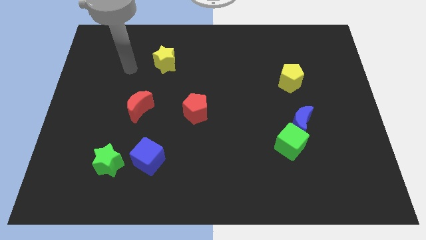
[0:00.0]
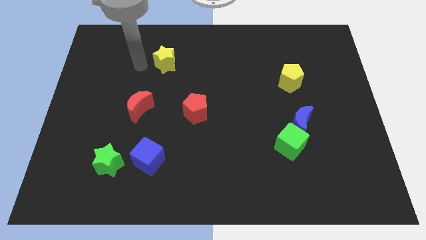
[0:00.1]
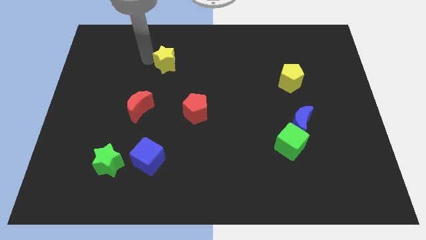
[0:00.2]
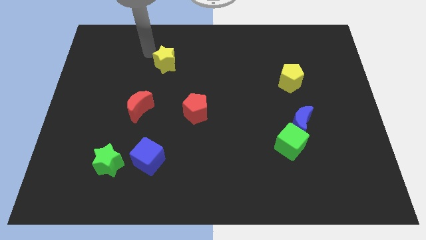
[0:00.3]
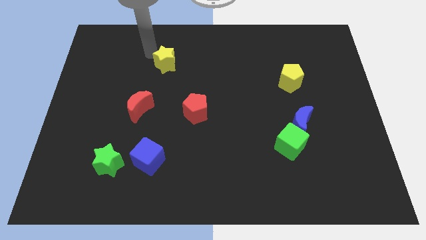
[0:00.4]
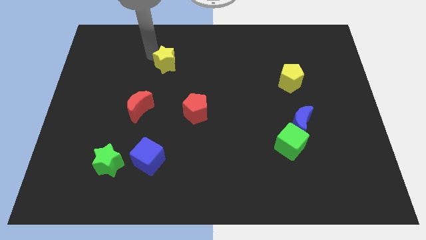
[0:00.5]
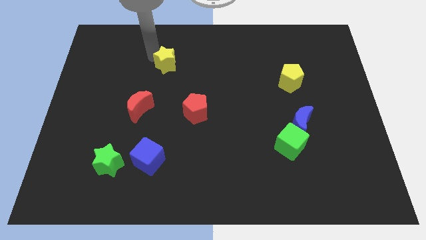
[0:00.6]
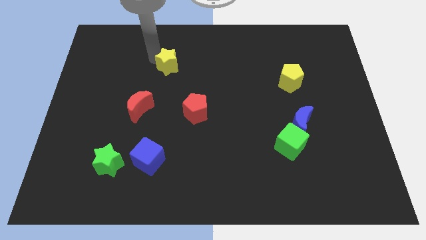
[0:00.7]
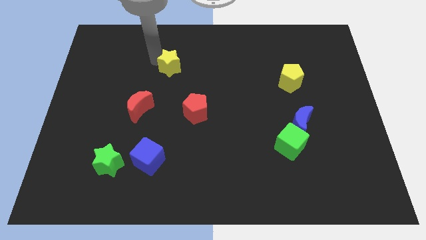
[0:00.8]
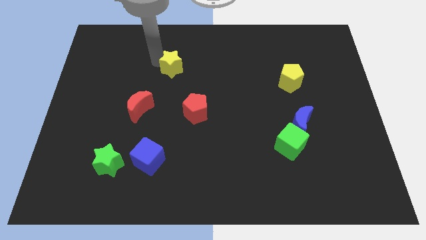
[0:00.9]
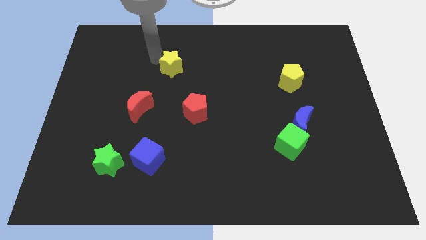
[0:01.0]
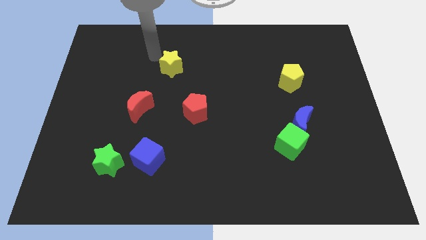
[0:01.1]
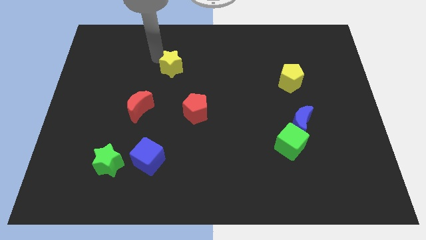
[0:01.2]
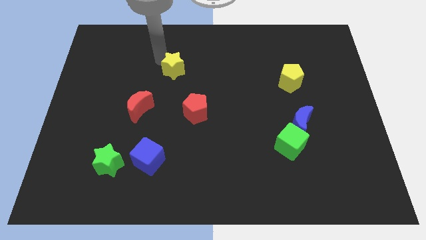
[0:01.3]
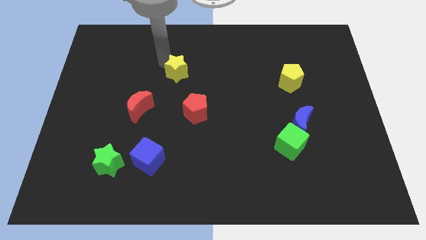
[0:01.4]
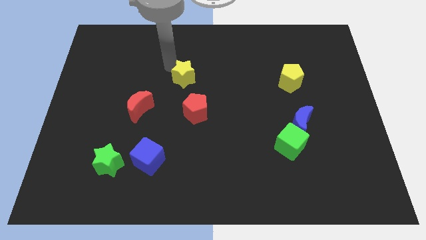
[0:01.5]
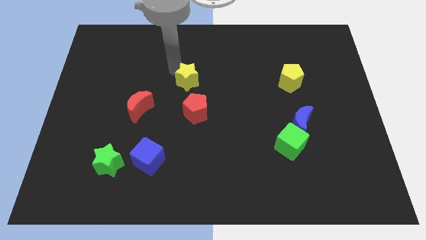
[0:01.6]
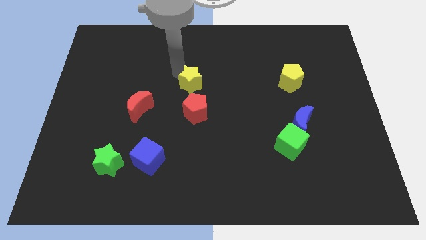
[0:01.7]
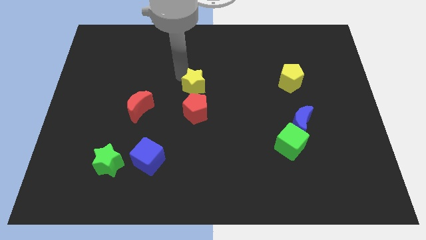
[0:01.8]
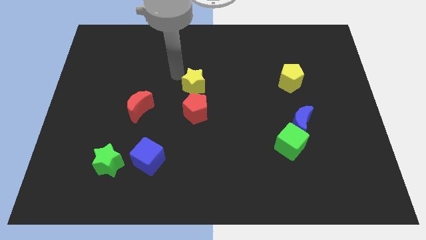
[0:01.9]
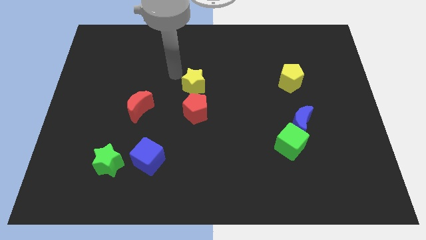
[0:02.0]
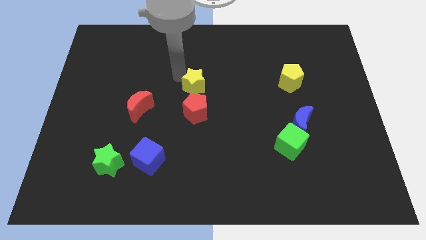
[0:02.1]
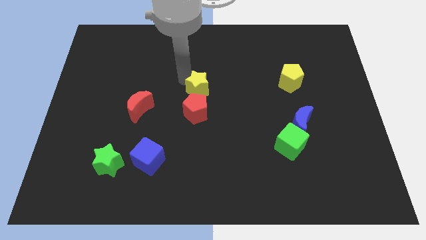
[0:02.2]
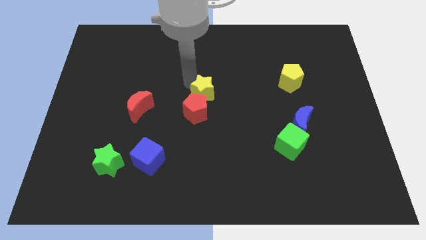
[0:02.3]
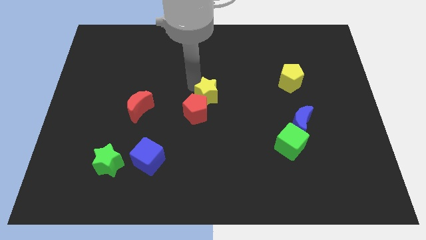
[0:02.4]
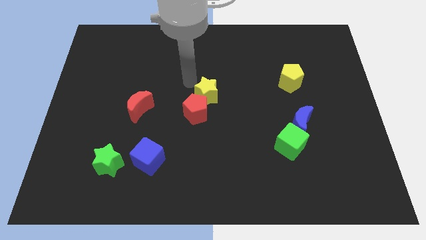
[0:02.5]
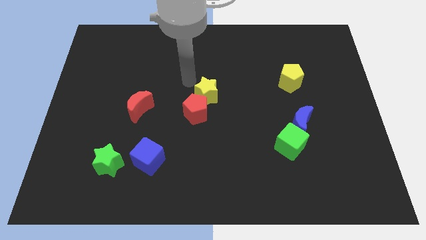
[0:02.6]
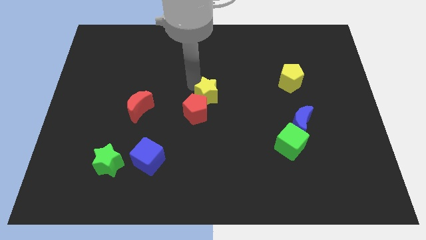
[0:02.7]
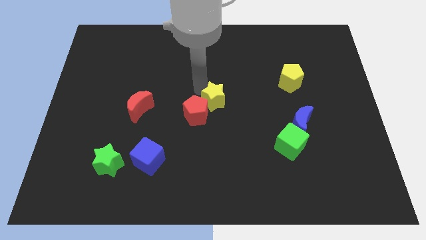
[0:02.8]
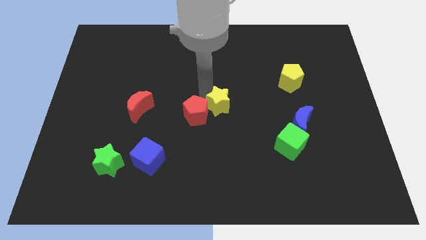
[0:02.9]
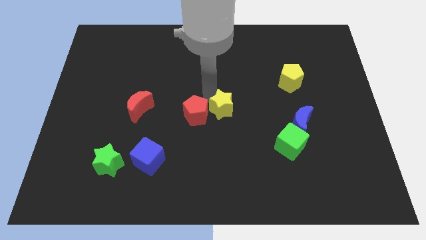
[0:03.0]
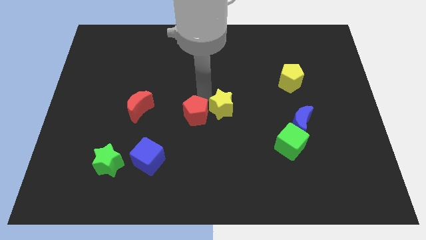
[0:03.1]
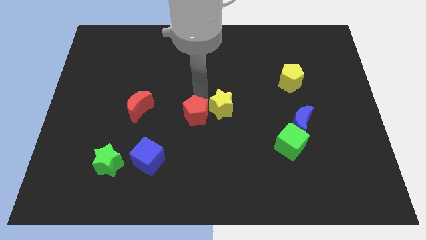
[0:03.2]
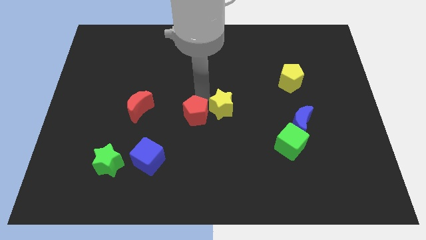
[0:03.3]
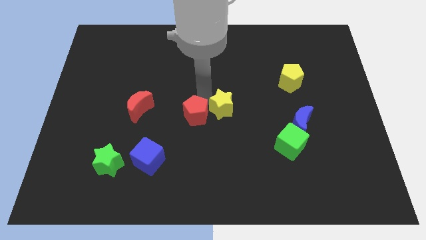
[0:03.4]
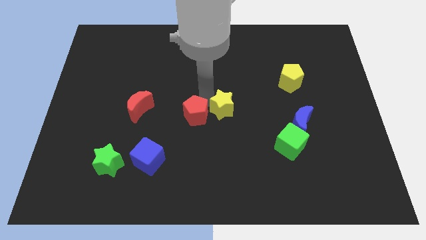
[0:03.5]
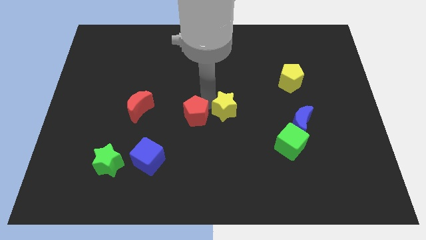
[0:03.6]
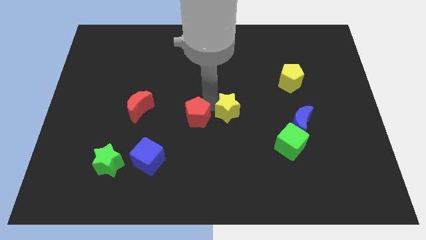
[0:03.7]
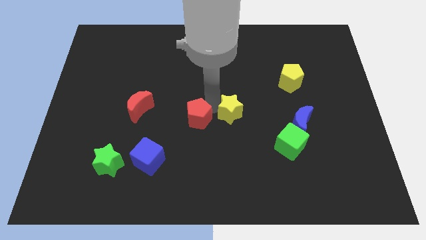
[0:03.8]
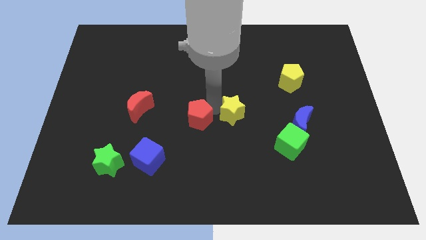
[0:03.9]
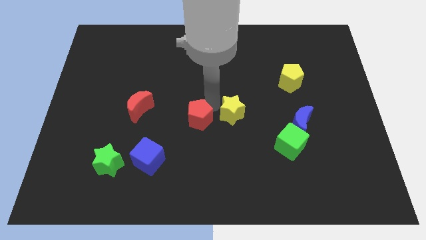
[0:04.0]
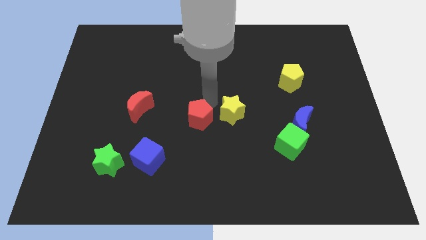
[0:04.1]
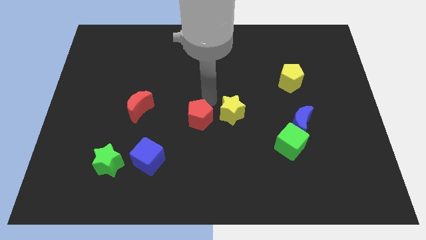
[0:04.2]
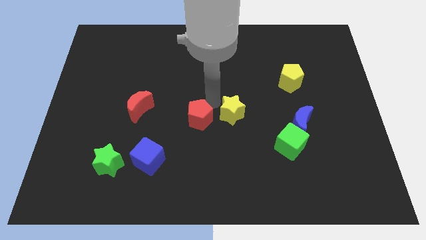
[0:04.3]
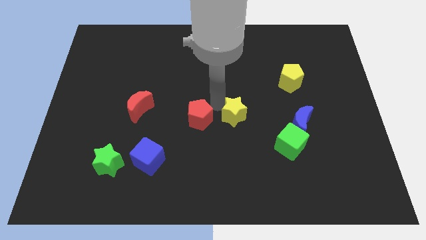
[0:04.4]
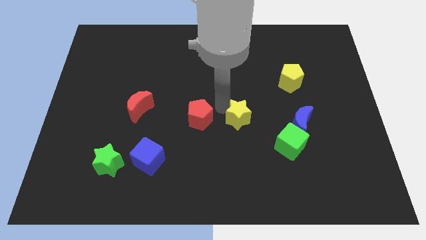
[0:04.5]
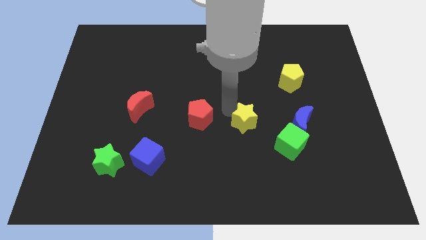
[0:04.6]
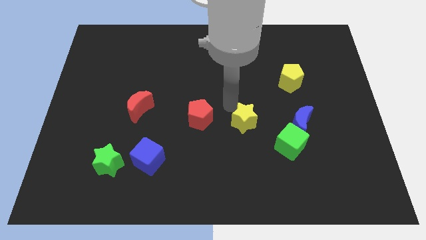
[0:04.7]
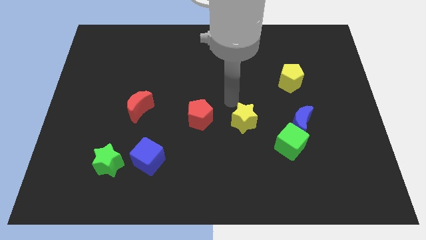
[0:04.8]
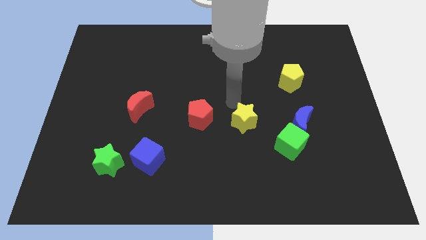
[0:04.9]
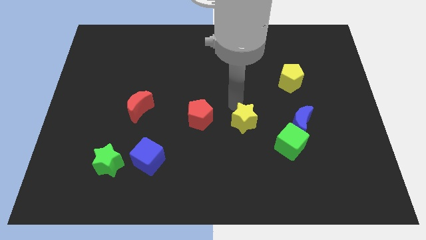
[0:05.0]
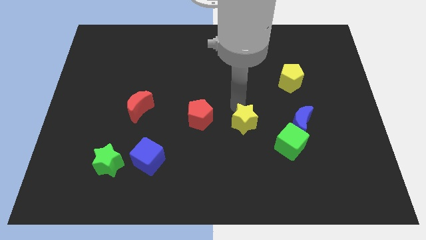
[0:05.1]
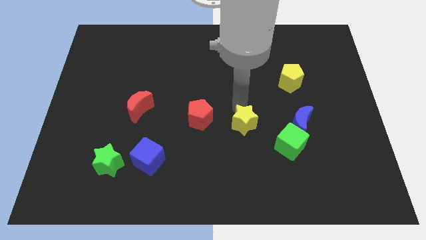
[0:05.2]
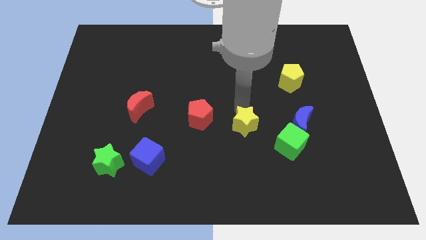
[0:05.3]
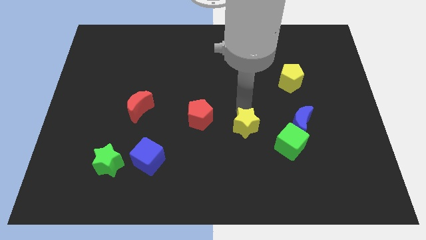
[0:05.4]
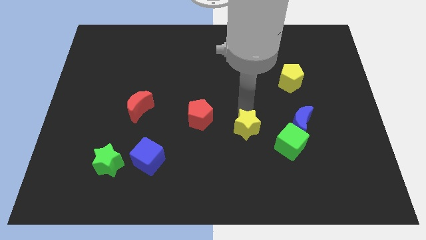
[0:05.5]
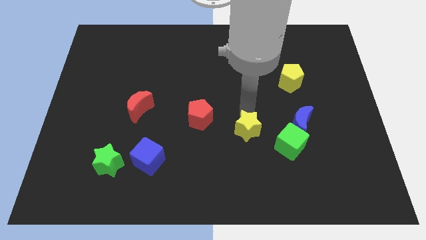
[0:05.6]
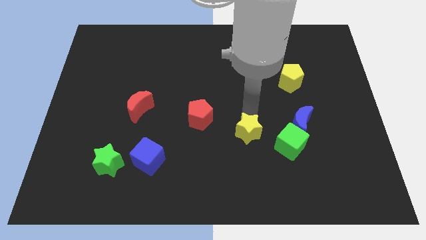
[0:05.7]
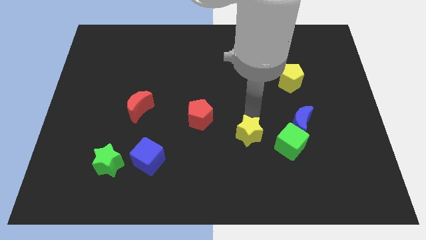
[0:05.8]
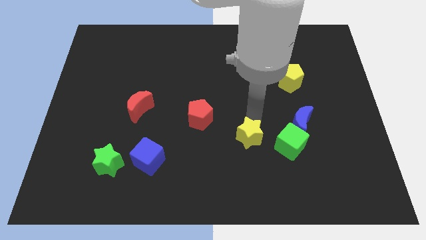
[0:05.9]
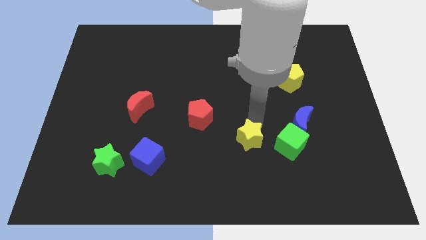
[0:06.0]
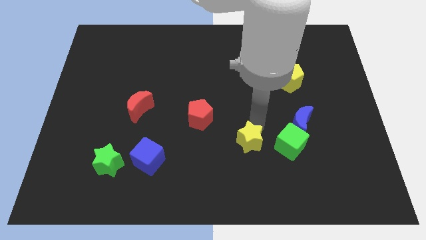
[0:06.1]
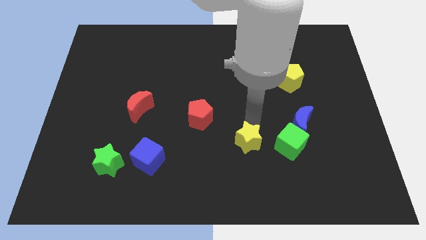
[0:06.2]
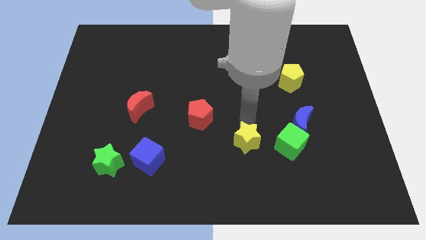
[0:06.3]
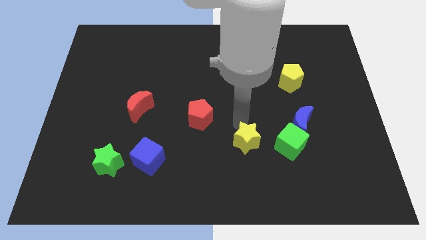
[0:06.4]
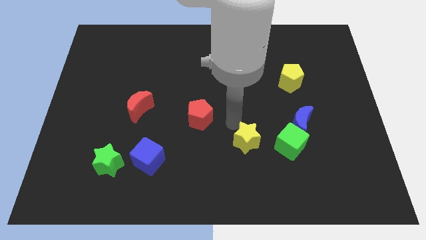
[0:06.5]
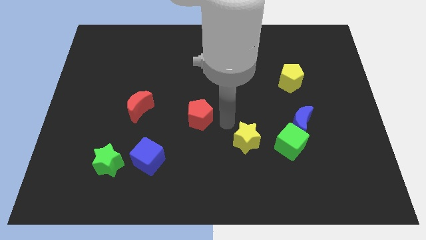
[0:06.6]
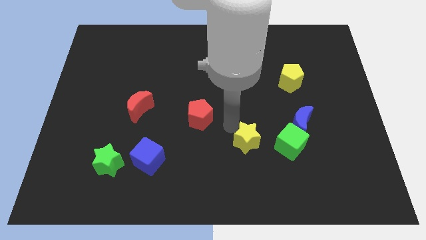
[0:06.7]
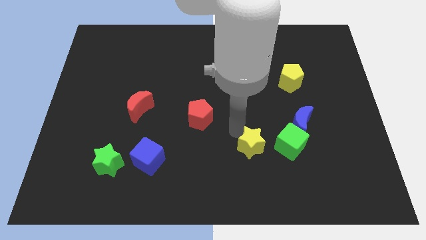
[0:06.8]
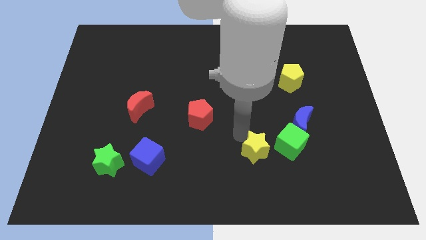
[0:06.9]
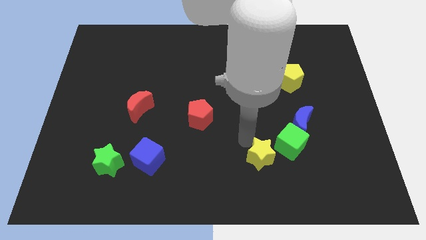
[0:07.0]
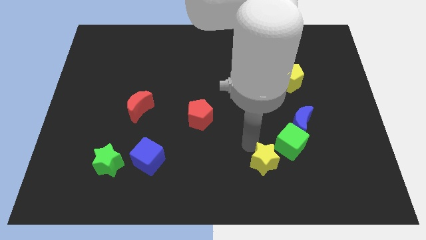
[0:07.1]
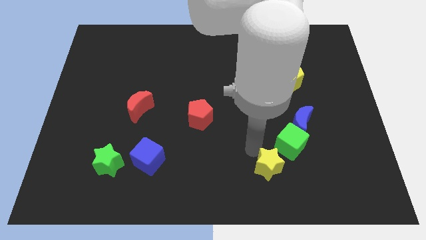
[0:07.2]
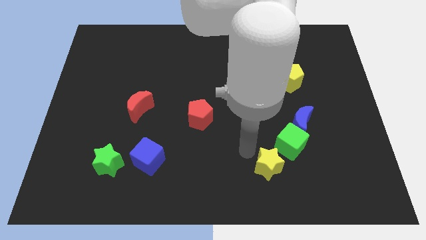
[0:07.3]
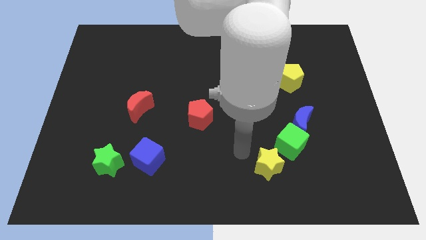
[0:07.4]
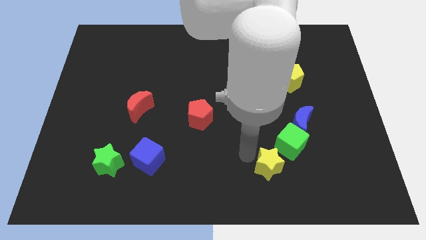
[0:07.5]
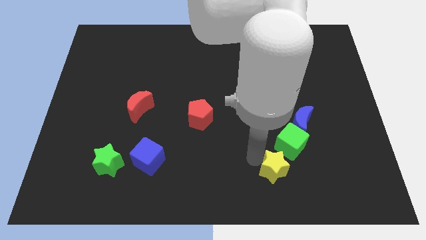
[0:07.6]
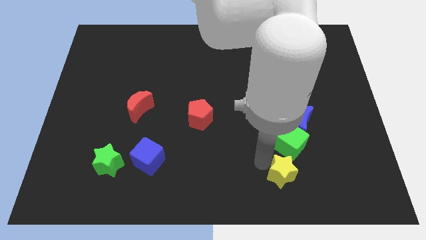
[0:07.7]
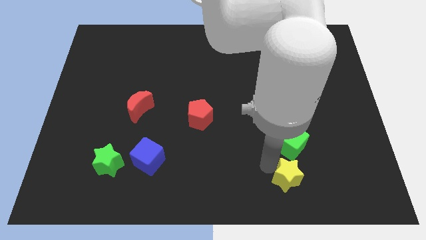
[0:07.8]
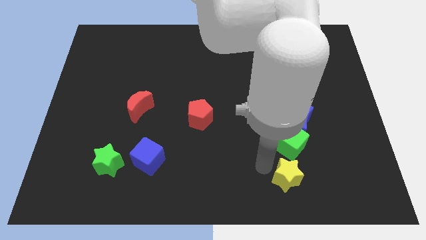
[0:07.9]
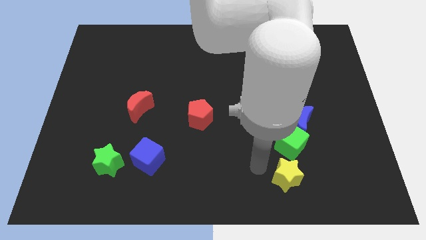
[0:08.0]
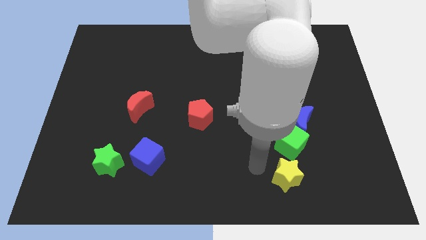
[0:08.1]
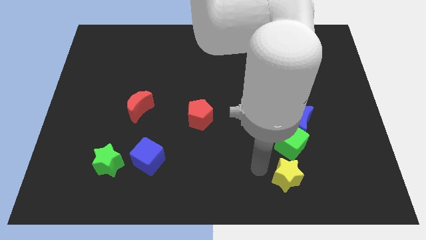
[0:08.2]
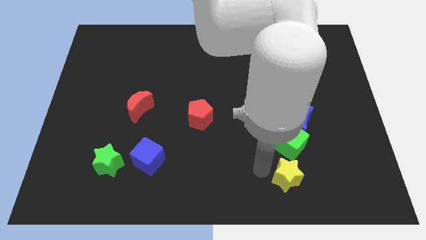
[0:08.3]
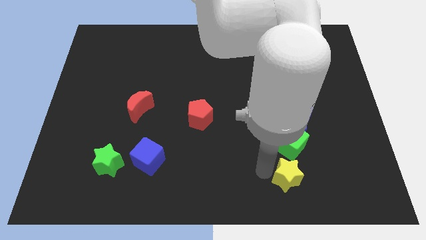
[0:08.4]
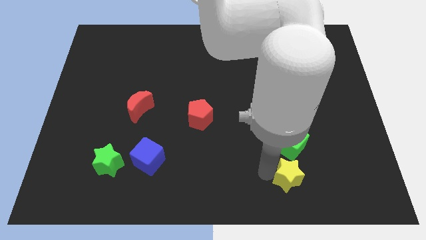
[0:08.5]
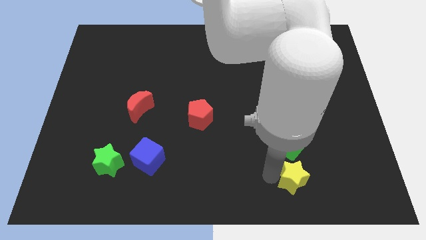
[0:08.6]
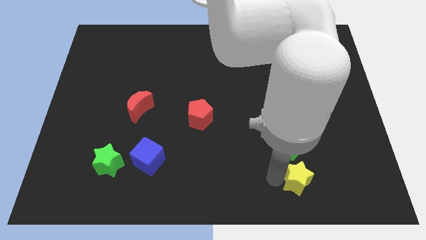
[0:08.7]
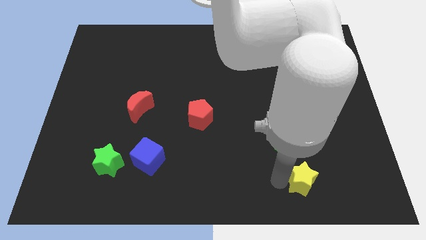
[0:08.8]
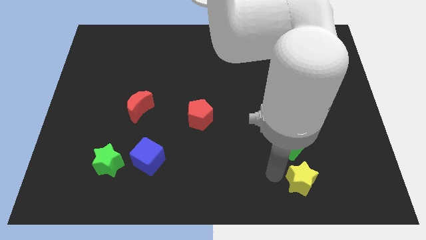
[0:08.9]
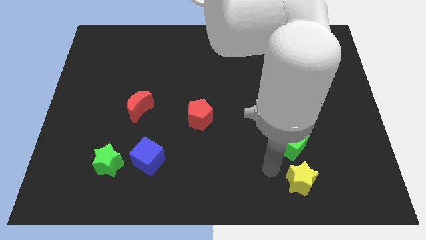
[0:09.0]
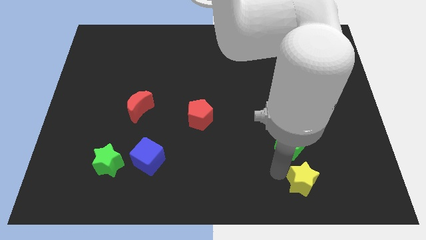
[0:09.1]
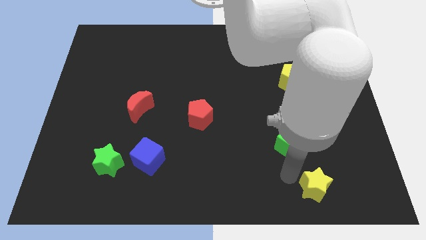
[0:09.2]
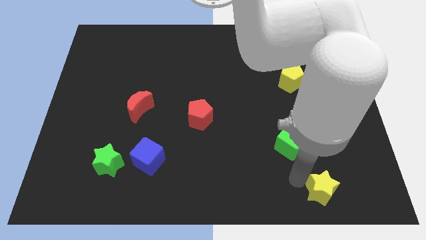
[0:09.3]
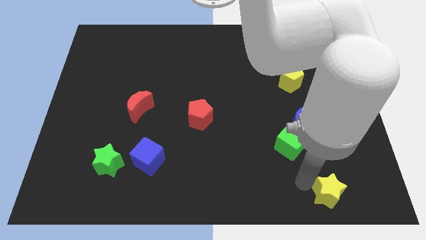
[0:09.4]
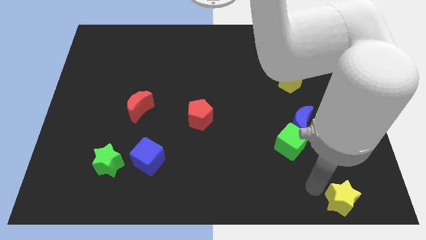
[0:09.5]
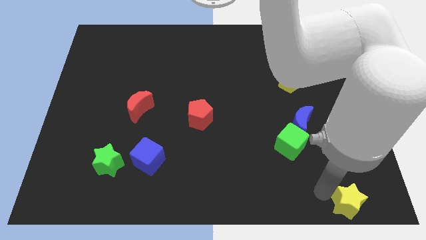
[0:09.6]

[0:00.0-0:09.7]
push the yellow star to the bottom right of the board
